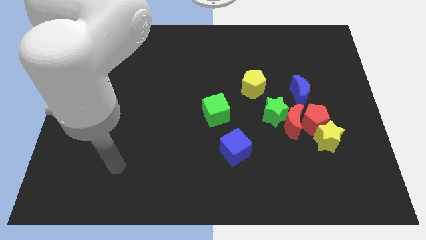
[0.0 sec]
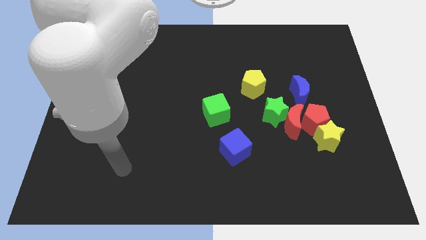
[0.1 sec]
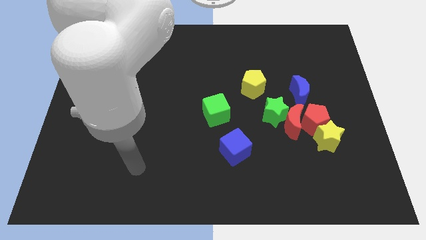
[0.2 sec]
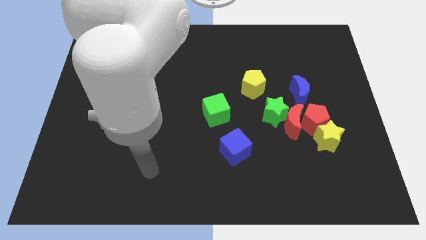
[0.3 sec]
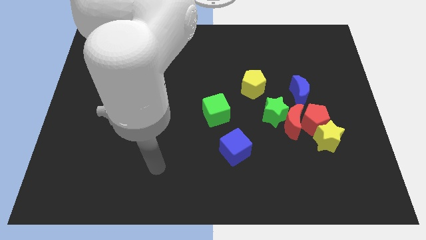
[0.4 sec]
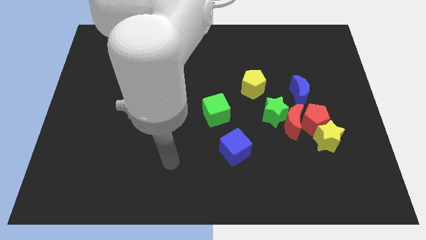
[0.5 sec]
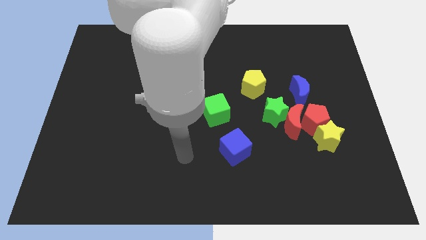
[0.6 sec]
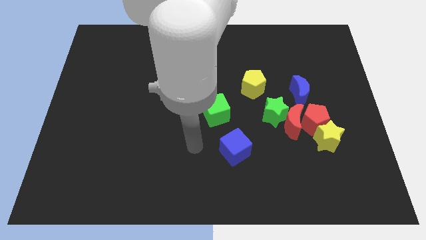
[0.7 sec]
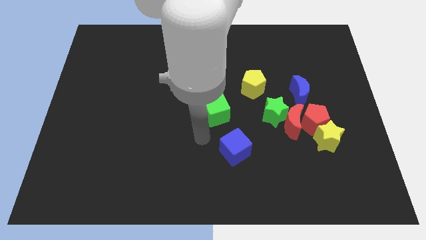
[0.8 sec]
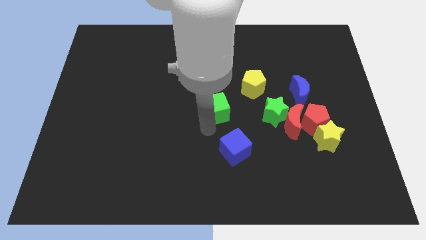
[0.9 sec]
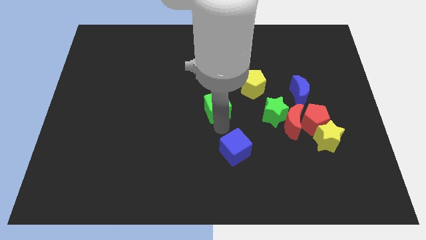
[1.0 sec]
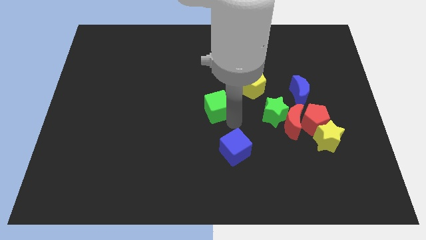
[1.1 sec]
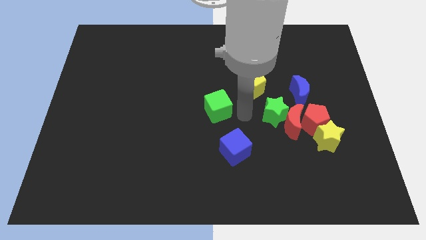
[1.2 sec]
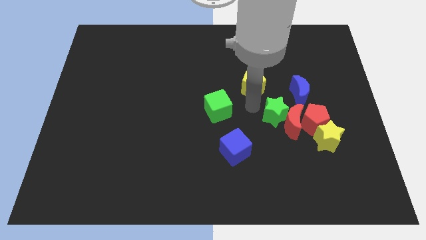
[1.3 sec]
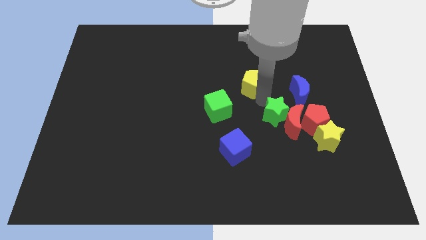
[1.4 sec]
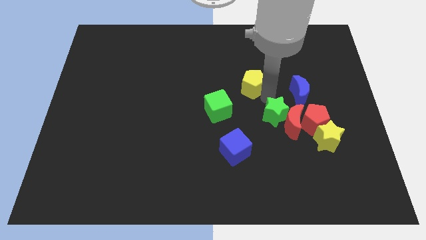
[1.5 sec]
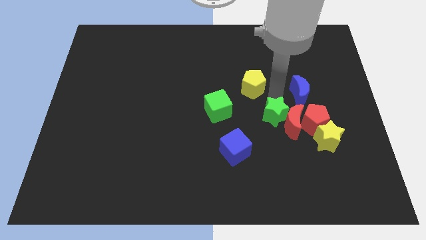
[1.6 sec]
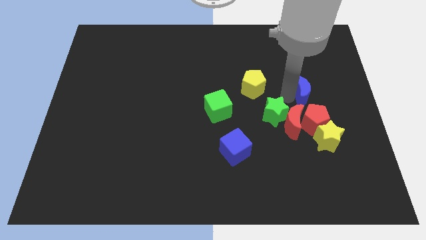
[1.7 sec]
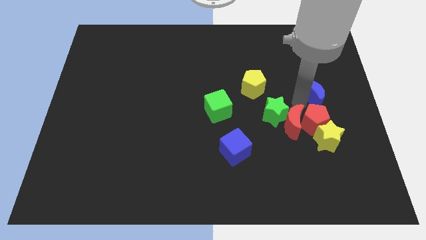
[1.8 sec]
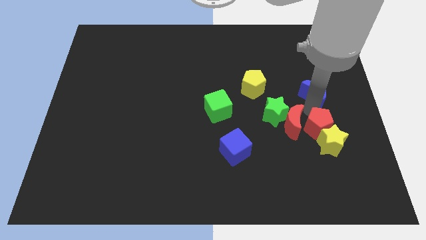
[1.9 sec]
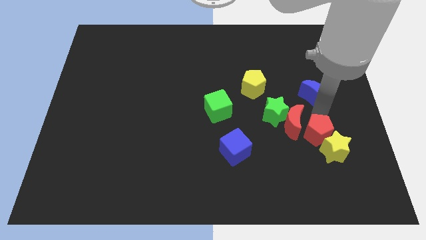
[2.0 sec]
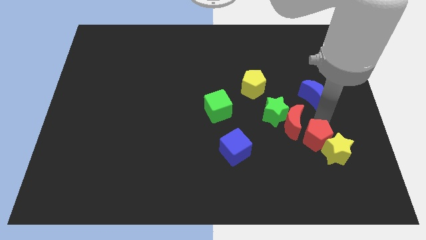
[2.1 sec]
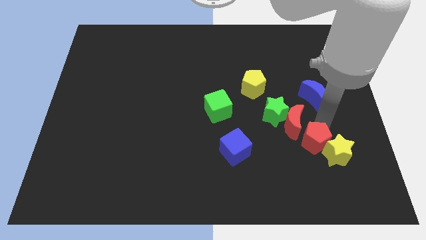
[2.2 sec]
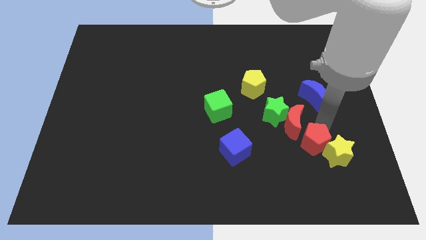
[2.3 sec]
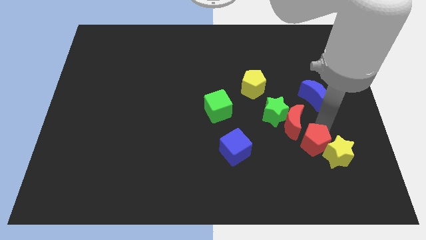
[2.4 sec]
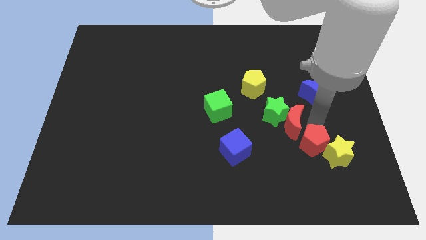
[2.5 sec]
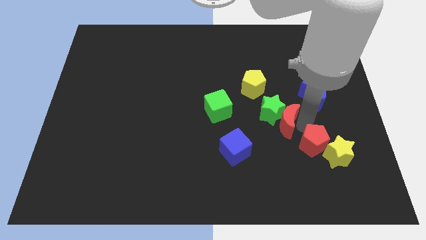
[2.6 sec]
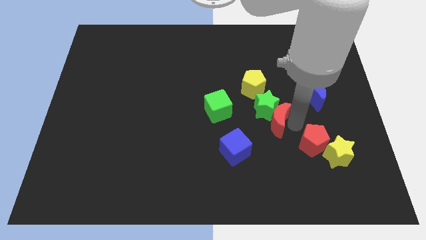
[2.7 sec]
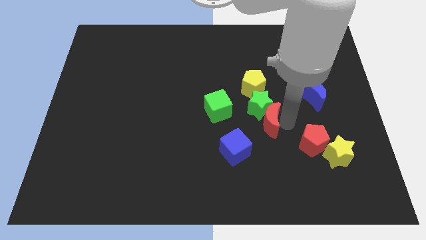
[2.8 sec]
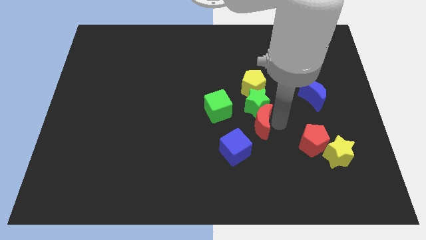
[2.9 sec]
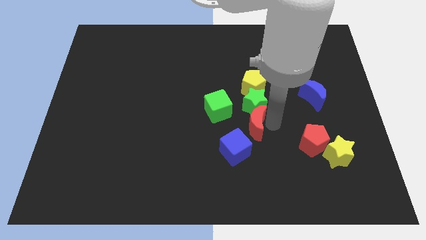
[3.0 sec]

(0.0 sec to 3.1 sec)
move the red moon away from the group of blocks

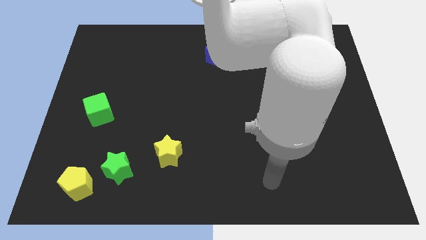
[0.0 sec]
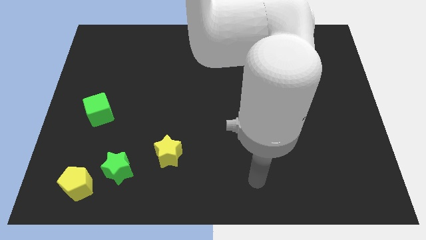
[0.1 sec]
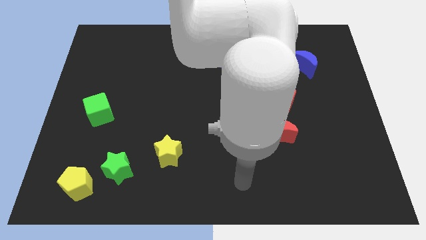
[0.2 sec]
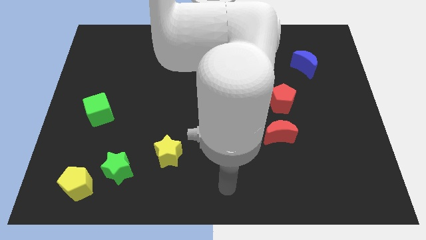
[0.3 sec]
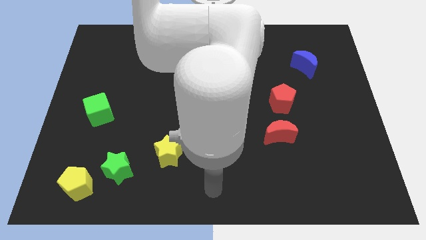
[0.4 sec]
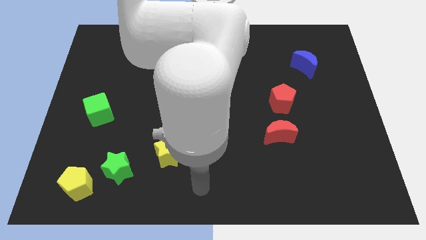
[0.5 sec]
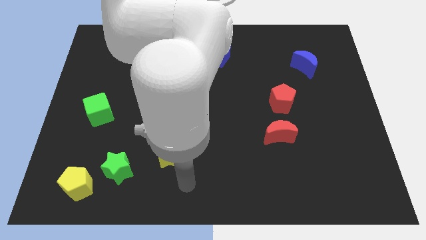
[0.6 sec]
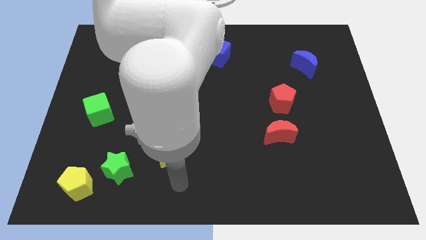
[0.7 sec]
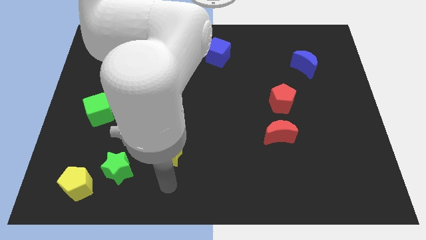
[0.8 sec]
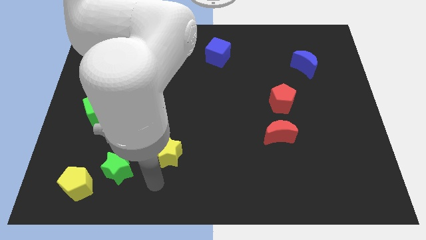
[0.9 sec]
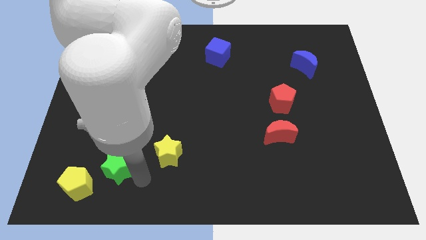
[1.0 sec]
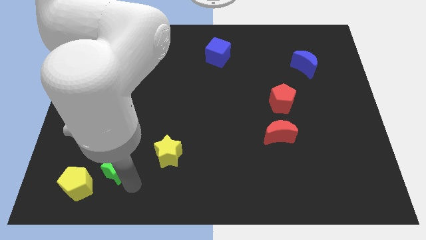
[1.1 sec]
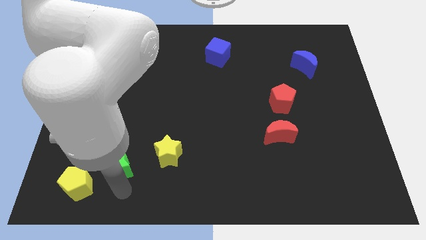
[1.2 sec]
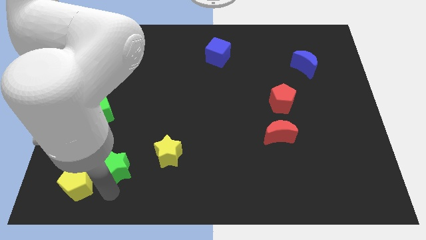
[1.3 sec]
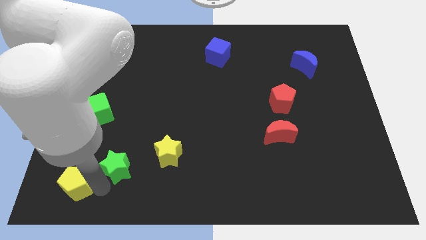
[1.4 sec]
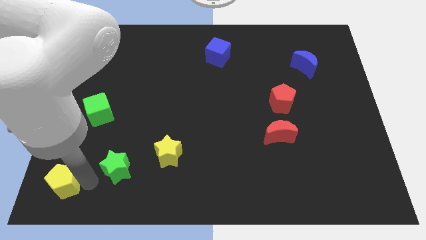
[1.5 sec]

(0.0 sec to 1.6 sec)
pull the green star apart from the yellow pentagon

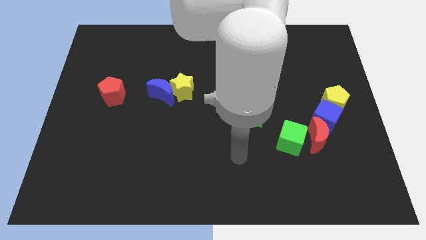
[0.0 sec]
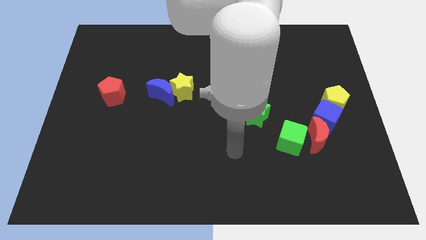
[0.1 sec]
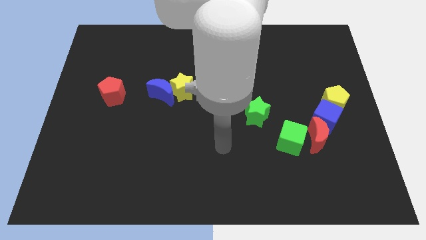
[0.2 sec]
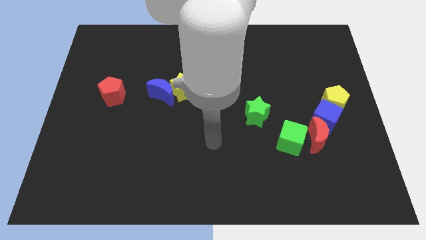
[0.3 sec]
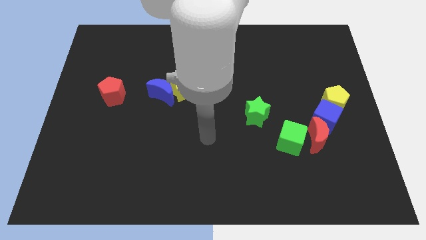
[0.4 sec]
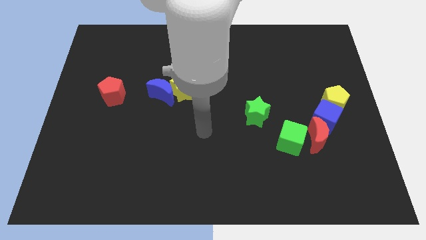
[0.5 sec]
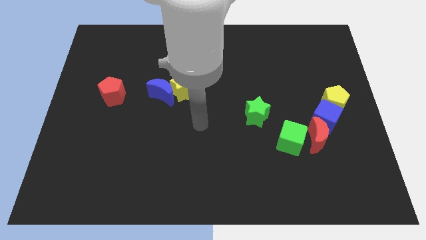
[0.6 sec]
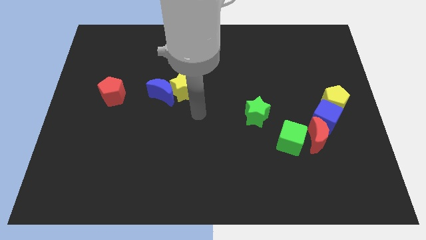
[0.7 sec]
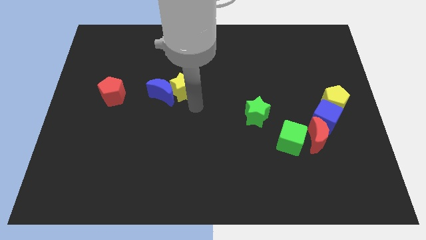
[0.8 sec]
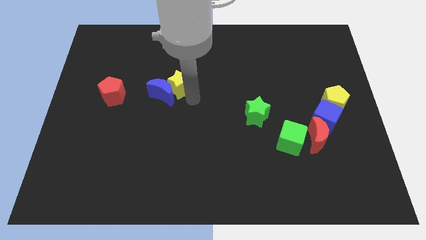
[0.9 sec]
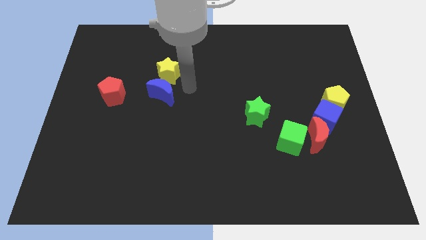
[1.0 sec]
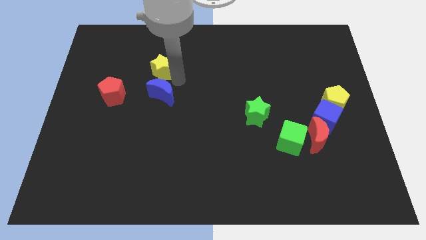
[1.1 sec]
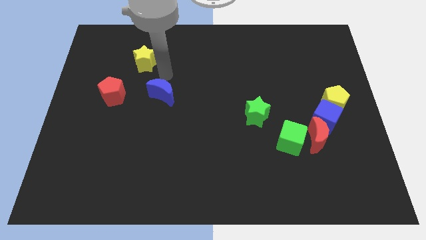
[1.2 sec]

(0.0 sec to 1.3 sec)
pull the blue moon apart from the yellow star

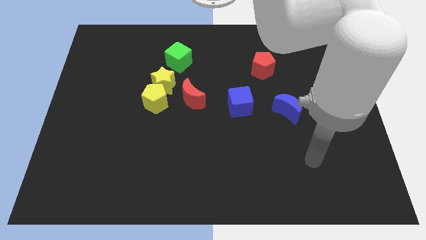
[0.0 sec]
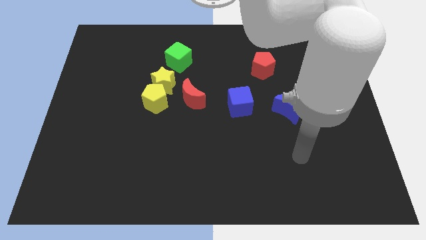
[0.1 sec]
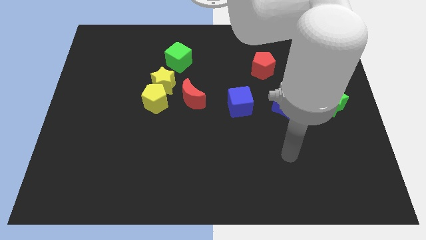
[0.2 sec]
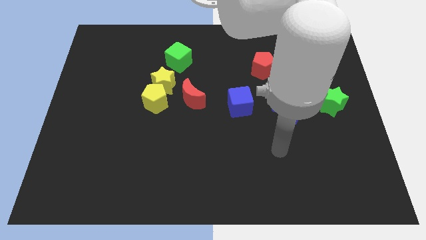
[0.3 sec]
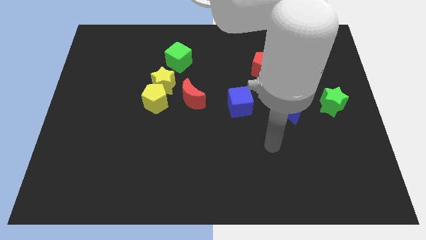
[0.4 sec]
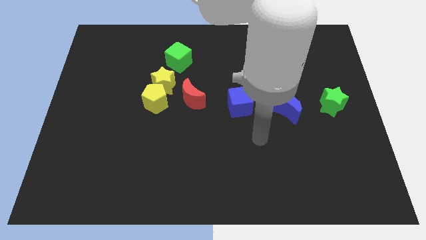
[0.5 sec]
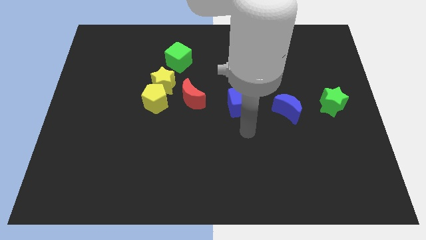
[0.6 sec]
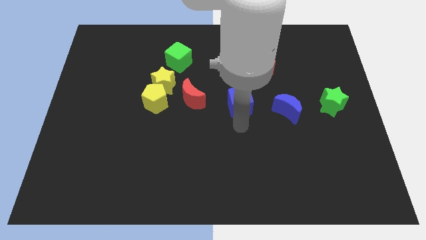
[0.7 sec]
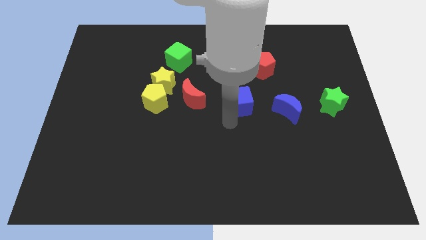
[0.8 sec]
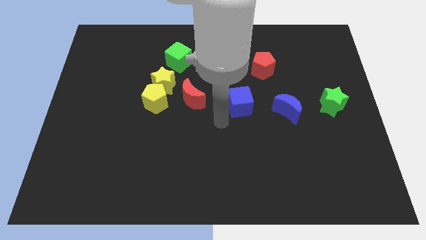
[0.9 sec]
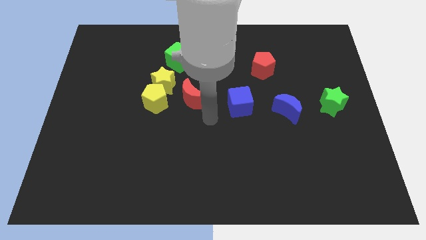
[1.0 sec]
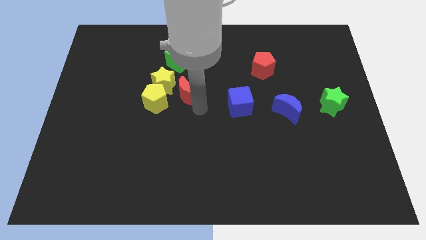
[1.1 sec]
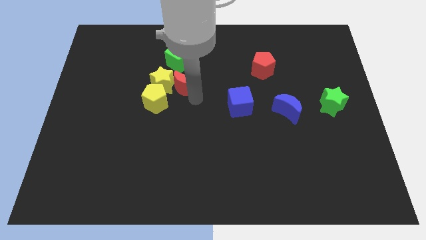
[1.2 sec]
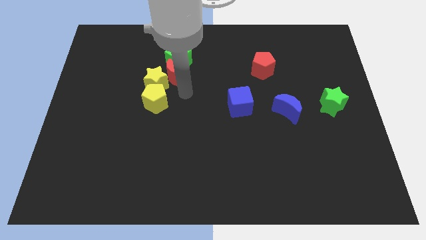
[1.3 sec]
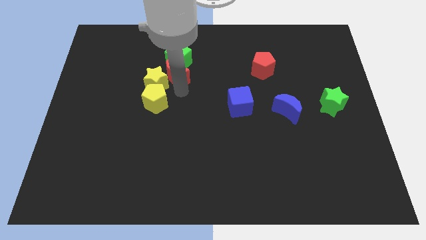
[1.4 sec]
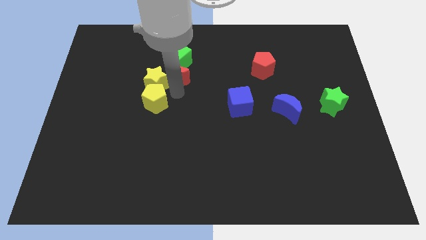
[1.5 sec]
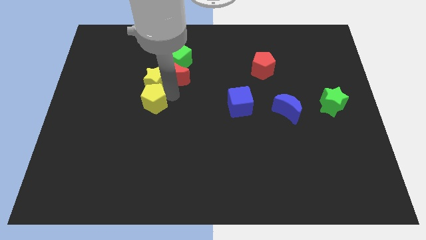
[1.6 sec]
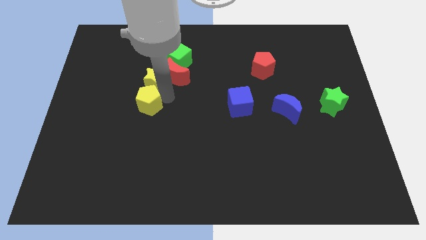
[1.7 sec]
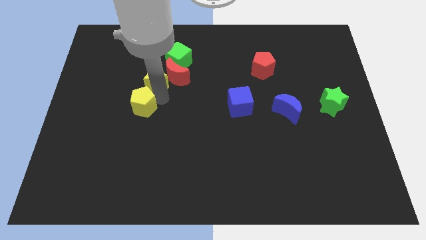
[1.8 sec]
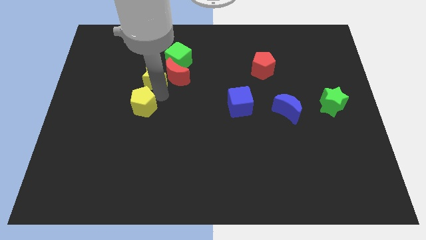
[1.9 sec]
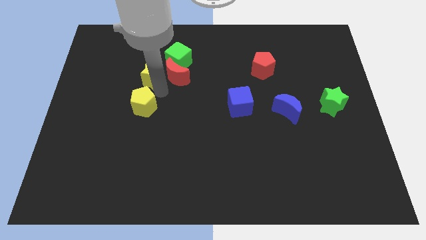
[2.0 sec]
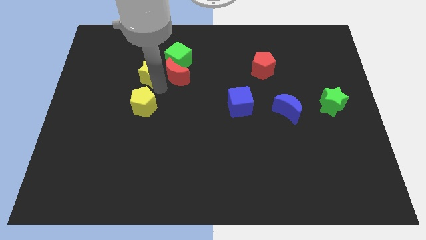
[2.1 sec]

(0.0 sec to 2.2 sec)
separate the yellow pentagon from the yellow star and red moon

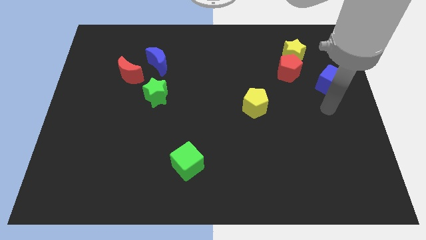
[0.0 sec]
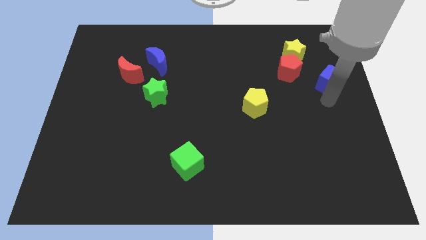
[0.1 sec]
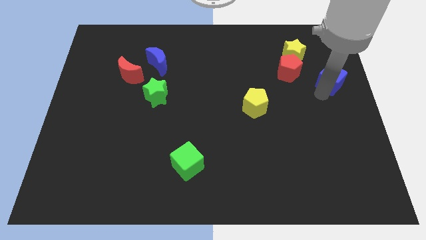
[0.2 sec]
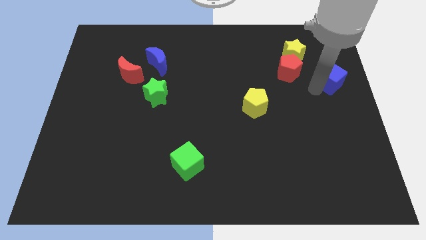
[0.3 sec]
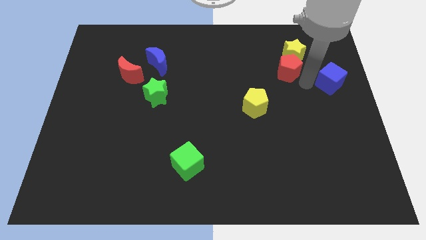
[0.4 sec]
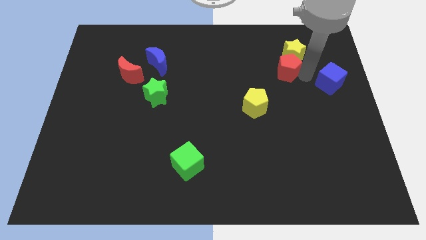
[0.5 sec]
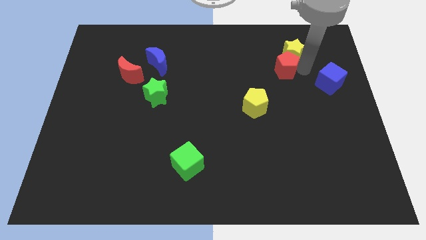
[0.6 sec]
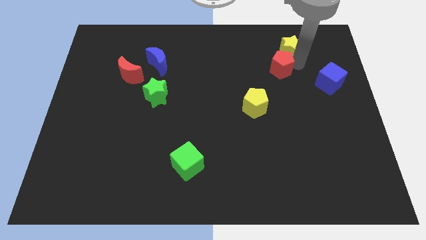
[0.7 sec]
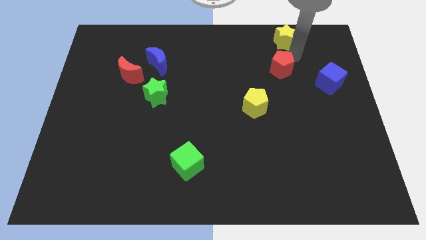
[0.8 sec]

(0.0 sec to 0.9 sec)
pull the red pentagon apart from the yellow star

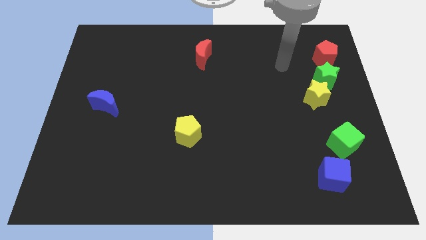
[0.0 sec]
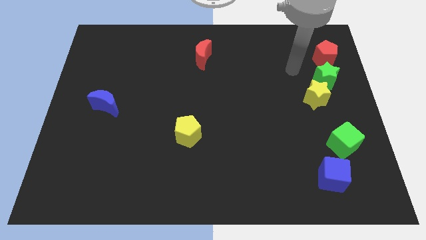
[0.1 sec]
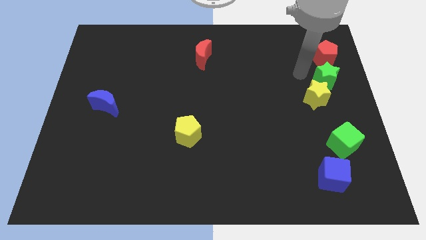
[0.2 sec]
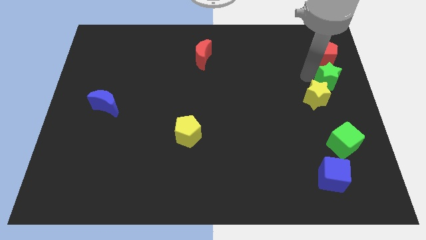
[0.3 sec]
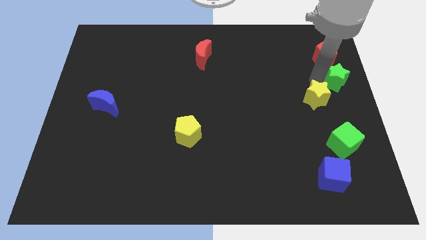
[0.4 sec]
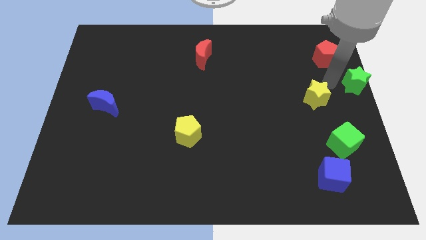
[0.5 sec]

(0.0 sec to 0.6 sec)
separate the yellow star from the green star
